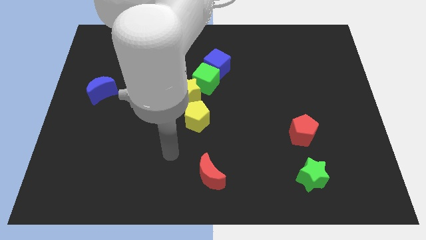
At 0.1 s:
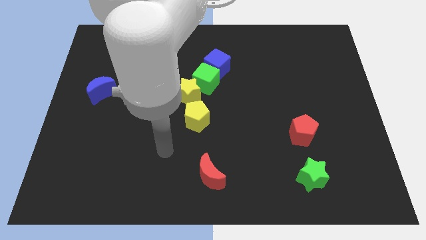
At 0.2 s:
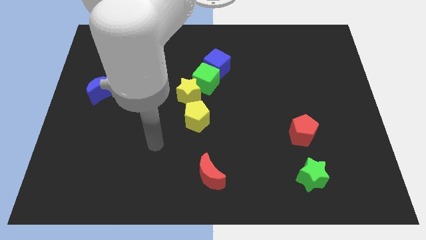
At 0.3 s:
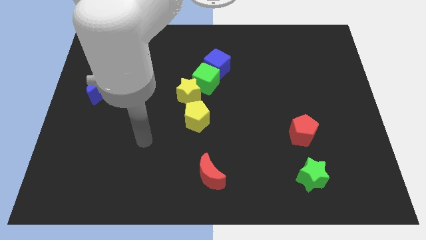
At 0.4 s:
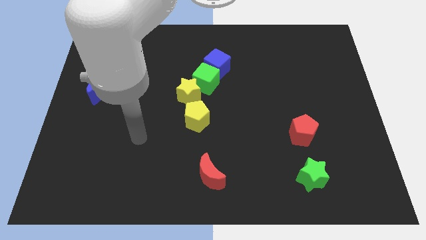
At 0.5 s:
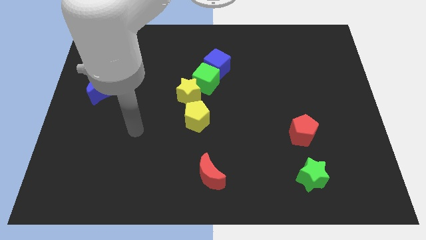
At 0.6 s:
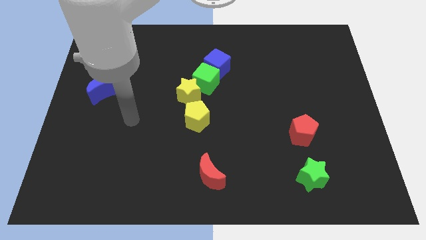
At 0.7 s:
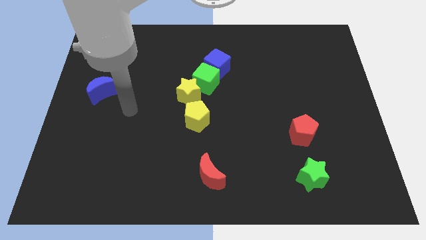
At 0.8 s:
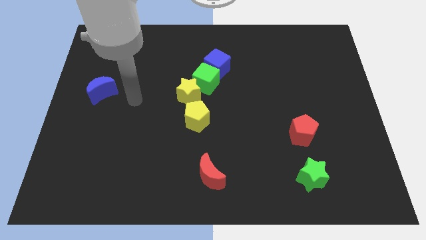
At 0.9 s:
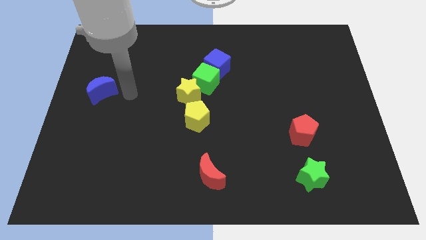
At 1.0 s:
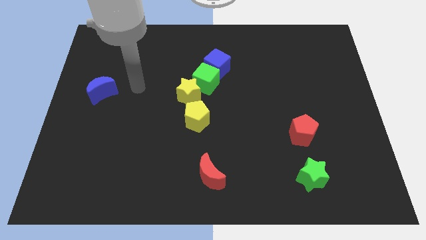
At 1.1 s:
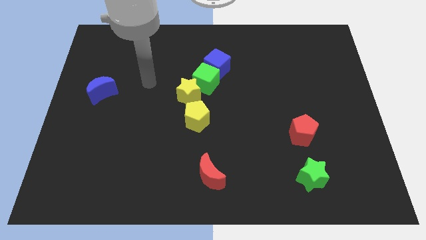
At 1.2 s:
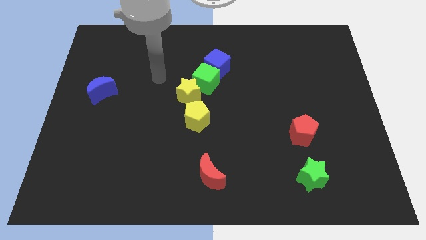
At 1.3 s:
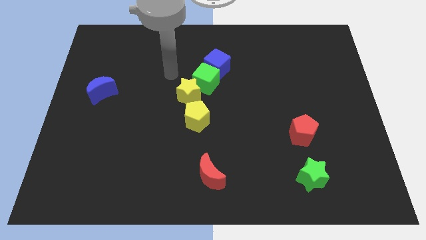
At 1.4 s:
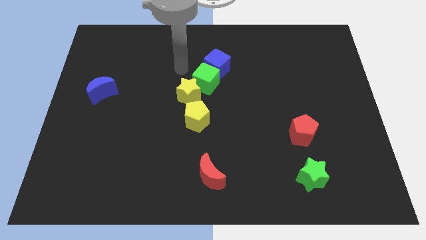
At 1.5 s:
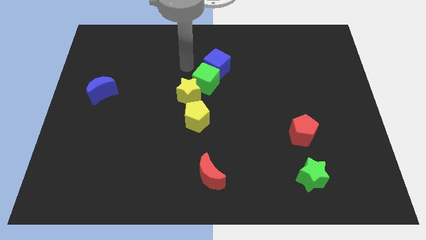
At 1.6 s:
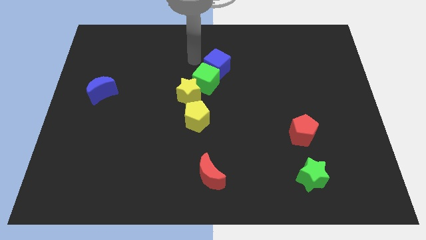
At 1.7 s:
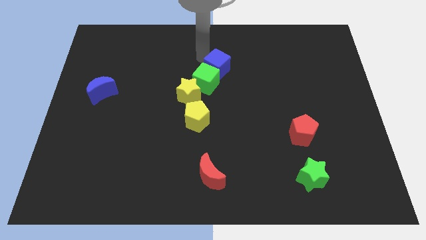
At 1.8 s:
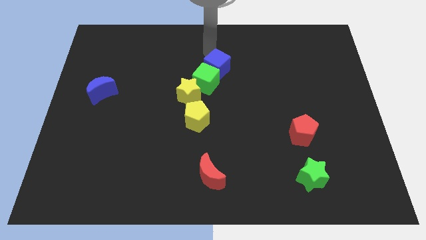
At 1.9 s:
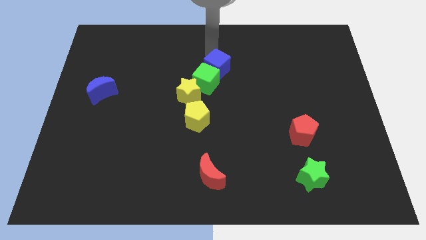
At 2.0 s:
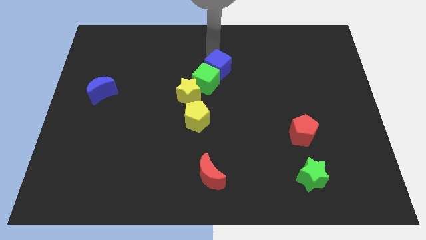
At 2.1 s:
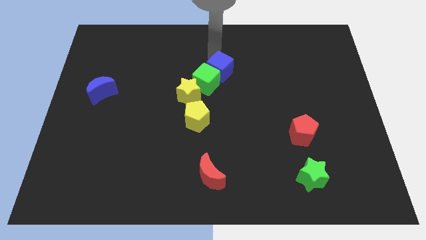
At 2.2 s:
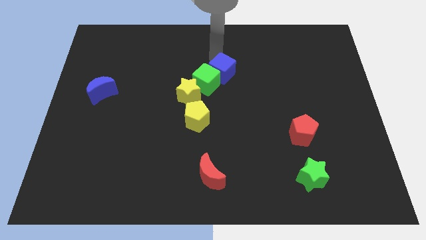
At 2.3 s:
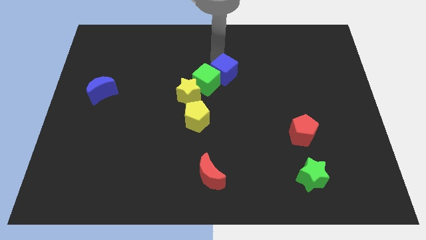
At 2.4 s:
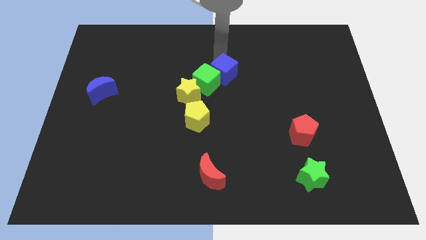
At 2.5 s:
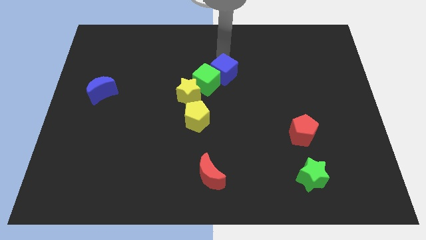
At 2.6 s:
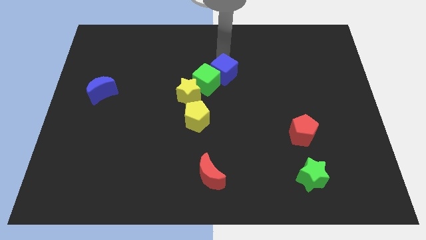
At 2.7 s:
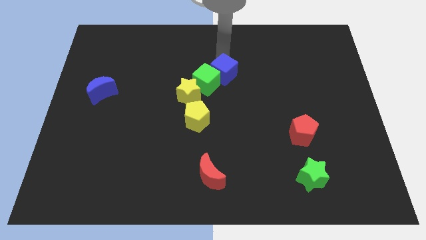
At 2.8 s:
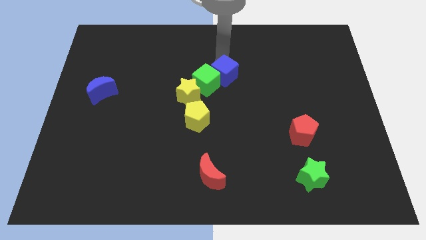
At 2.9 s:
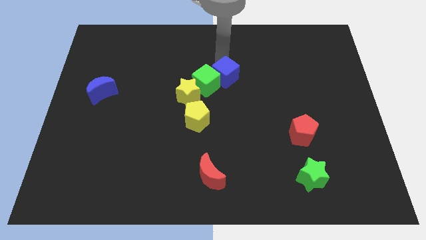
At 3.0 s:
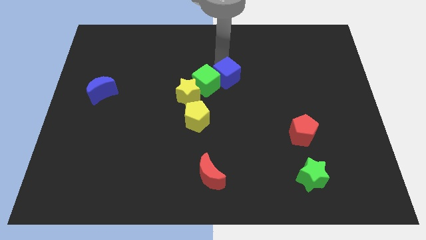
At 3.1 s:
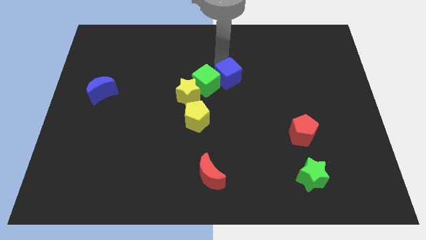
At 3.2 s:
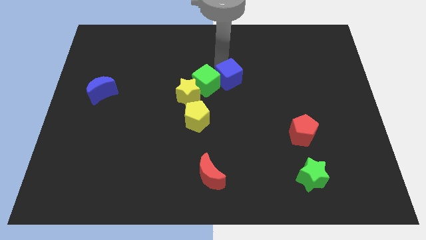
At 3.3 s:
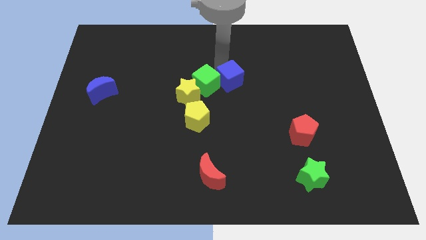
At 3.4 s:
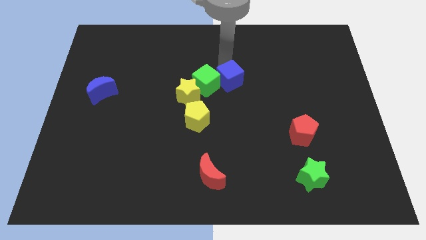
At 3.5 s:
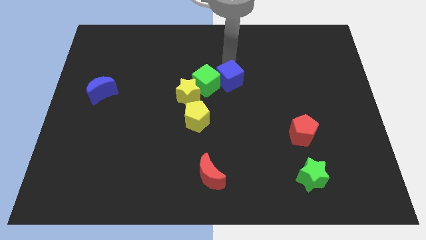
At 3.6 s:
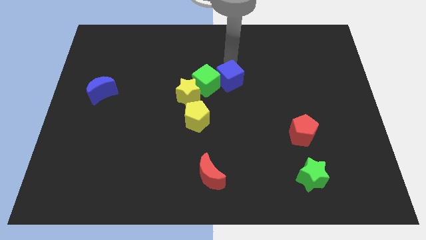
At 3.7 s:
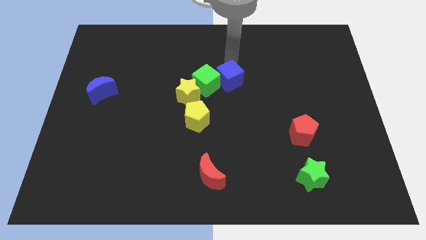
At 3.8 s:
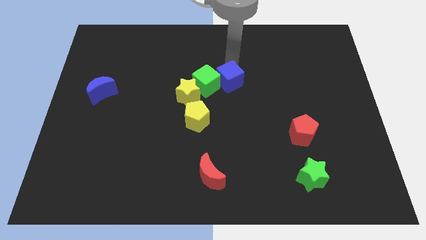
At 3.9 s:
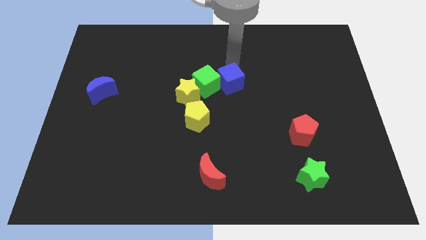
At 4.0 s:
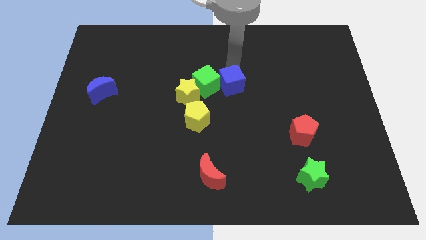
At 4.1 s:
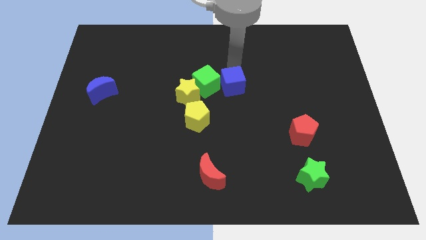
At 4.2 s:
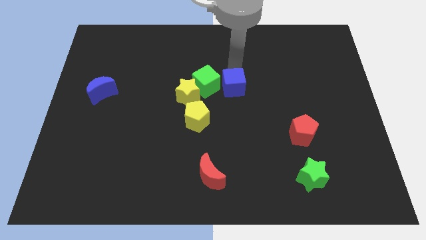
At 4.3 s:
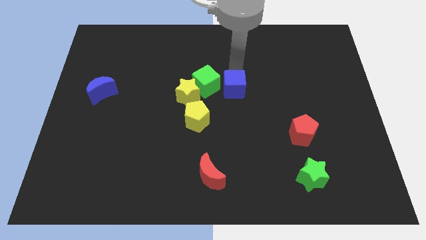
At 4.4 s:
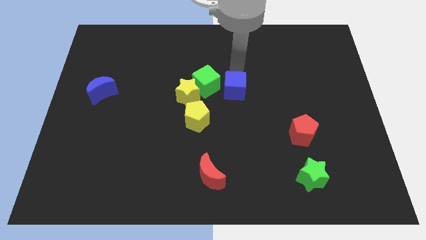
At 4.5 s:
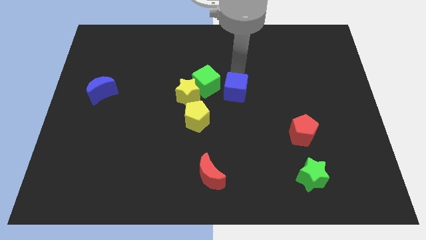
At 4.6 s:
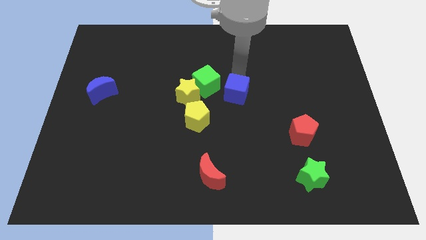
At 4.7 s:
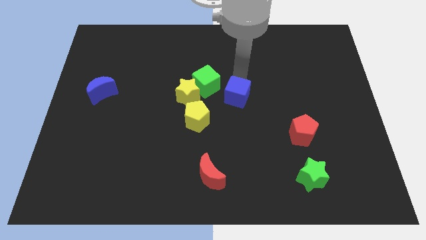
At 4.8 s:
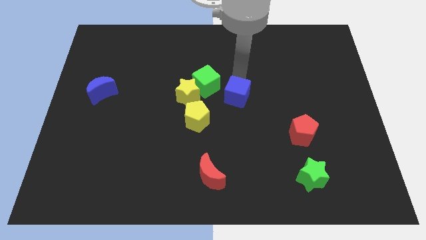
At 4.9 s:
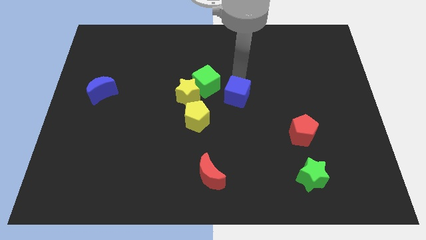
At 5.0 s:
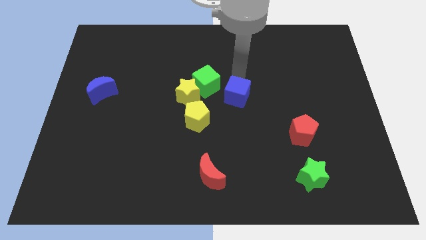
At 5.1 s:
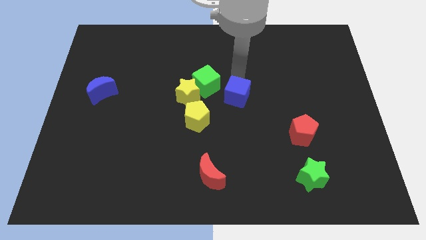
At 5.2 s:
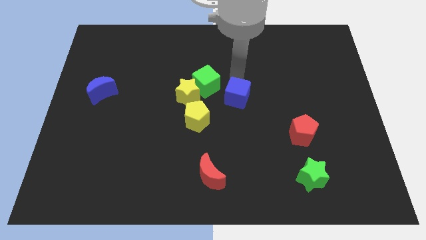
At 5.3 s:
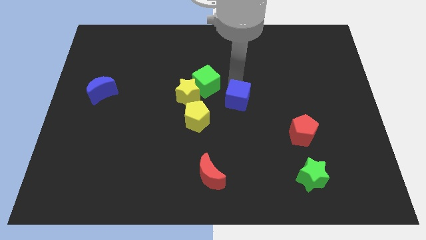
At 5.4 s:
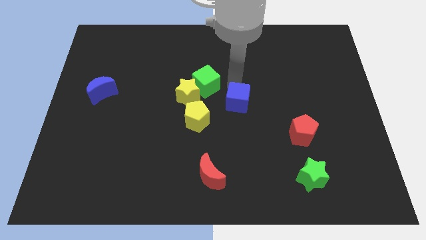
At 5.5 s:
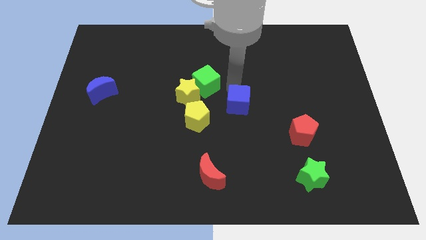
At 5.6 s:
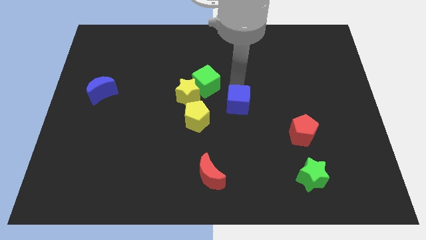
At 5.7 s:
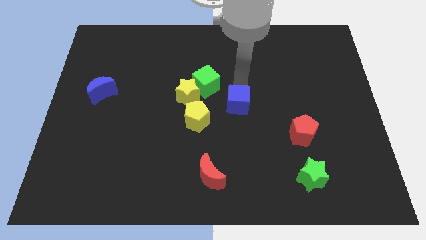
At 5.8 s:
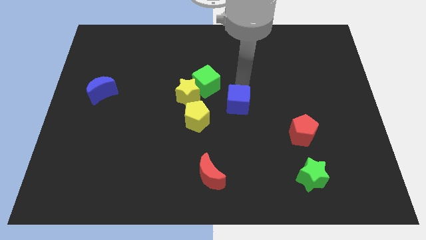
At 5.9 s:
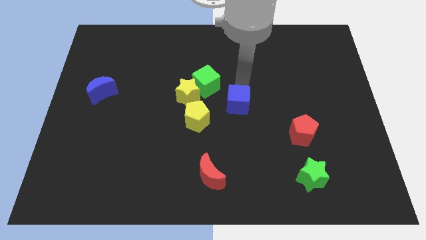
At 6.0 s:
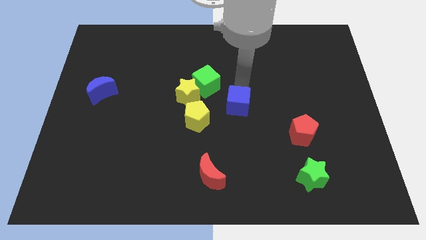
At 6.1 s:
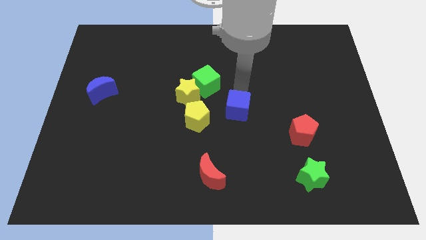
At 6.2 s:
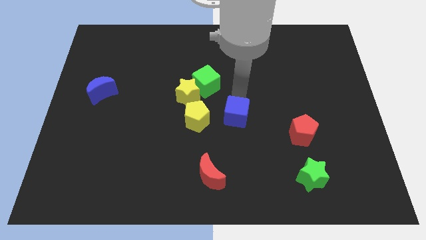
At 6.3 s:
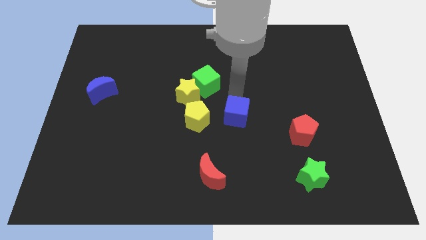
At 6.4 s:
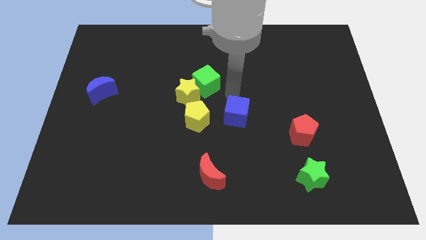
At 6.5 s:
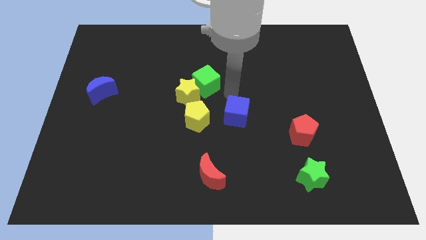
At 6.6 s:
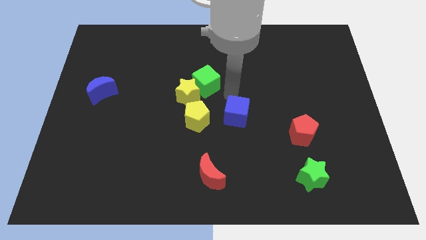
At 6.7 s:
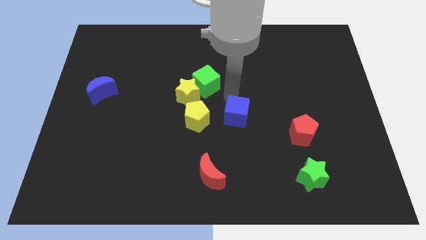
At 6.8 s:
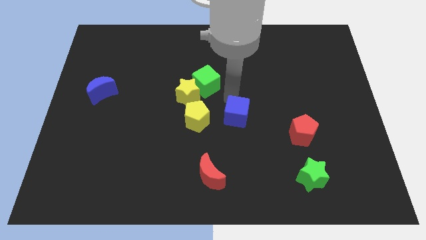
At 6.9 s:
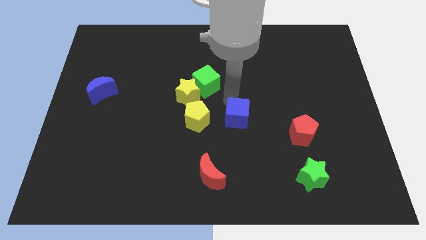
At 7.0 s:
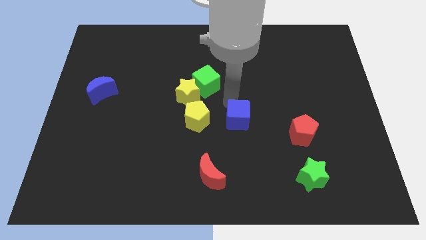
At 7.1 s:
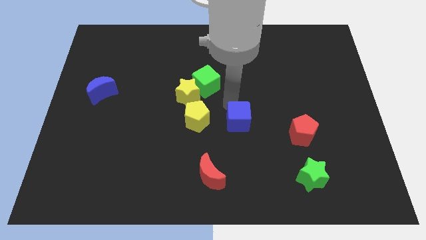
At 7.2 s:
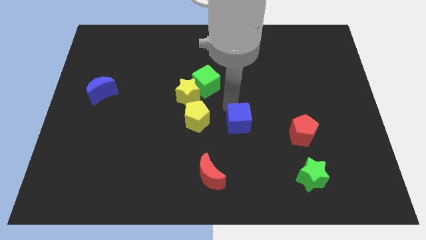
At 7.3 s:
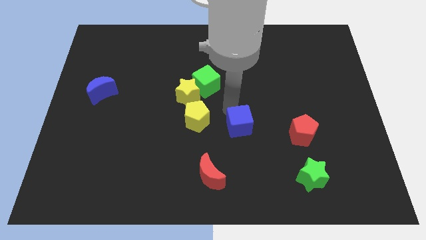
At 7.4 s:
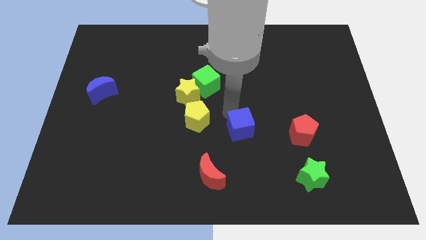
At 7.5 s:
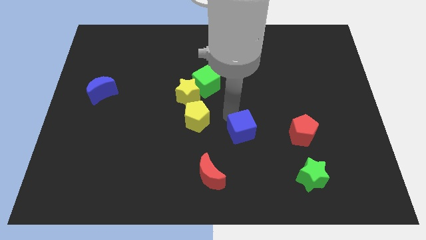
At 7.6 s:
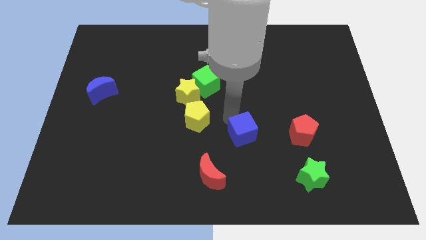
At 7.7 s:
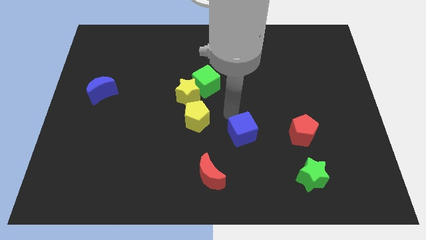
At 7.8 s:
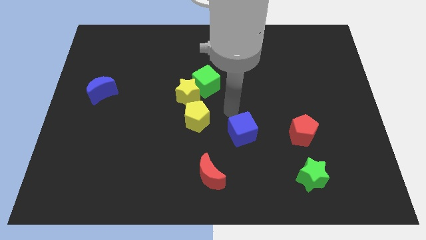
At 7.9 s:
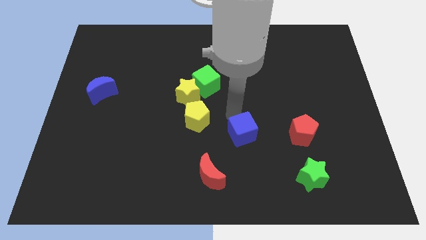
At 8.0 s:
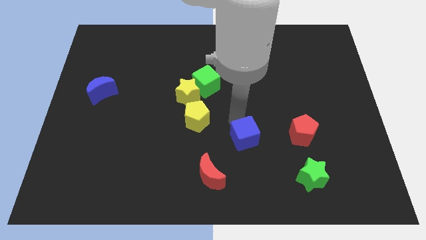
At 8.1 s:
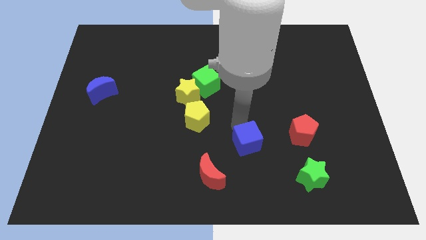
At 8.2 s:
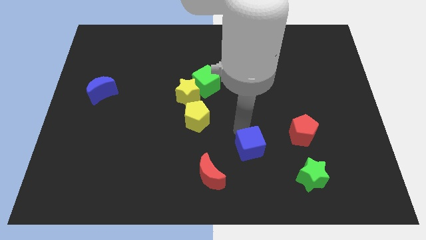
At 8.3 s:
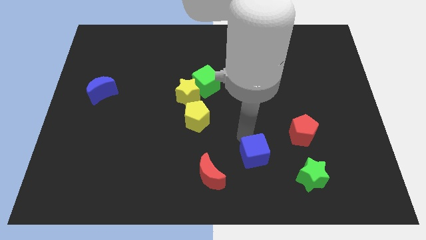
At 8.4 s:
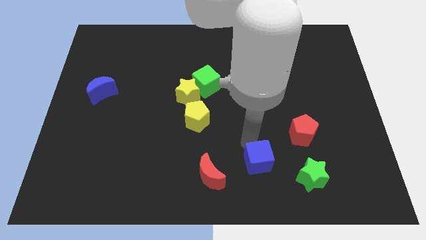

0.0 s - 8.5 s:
put the blue cube to the right side of the red moon
